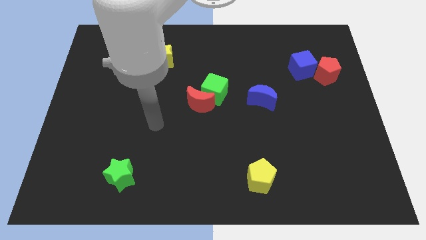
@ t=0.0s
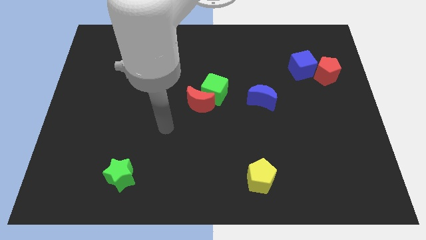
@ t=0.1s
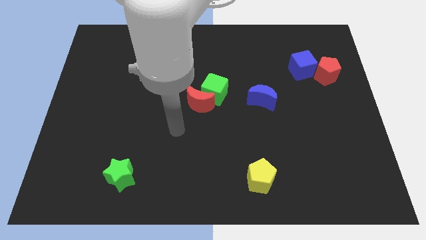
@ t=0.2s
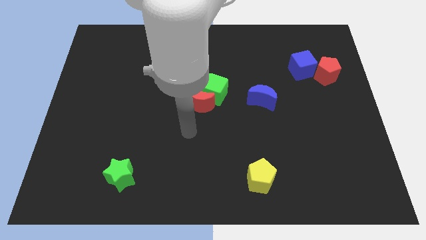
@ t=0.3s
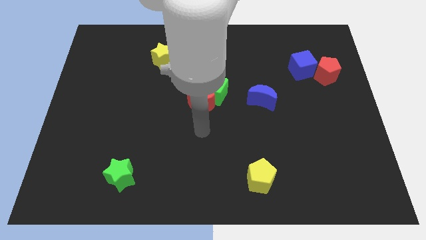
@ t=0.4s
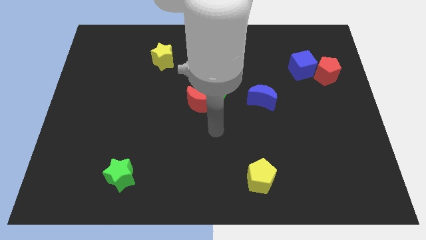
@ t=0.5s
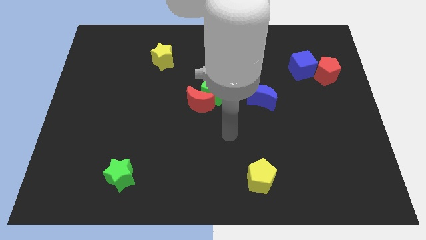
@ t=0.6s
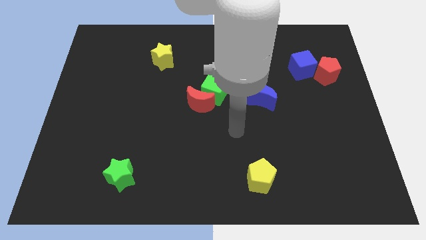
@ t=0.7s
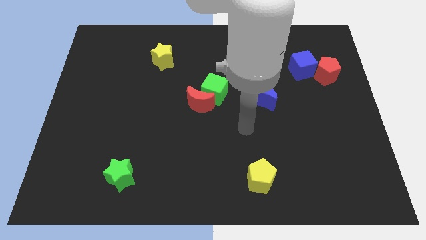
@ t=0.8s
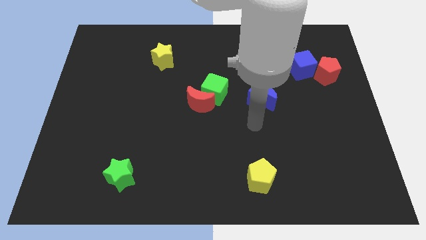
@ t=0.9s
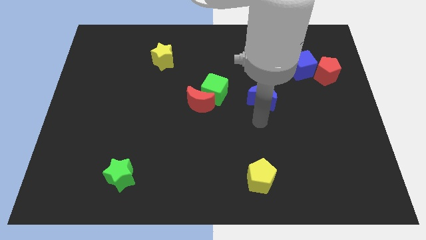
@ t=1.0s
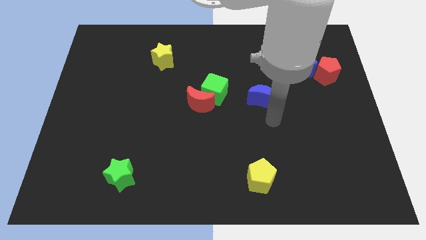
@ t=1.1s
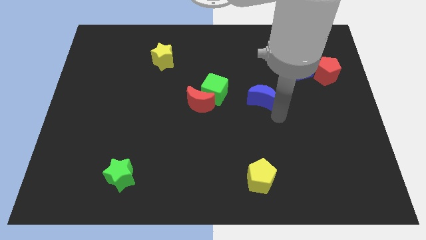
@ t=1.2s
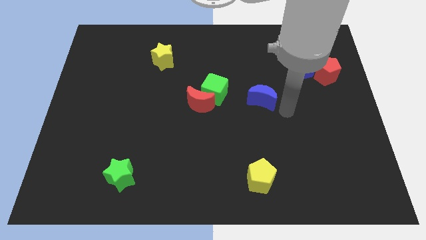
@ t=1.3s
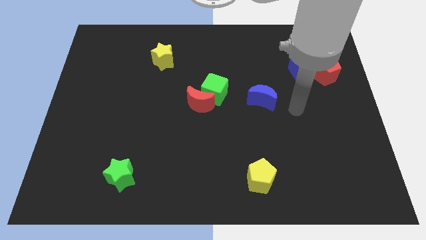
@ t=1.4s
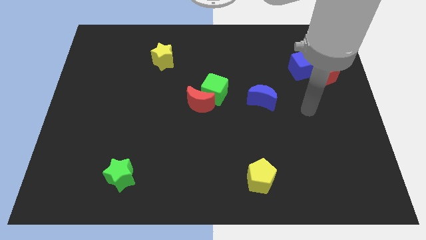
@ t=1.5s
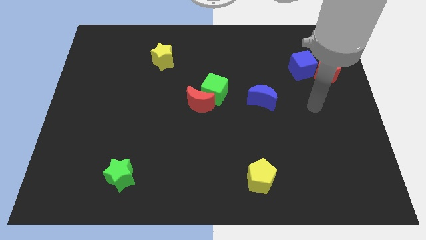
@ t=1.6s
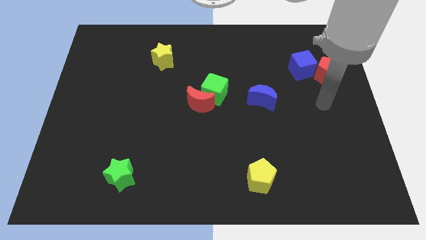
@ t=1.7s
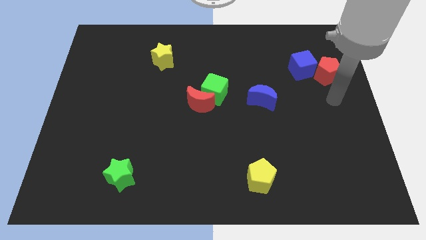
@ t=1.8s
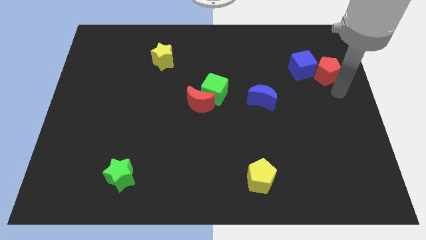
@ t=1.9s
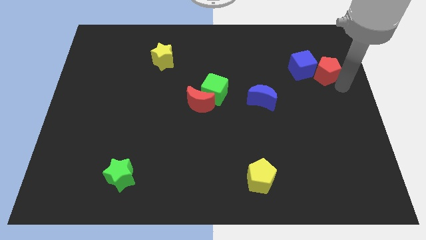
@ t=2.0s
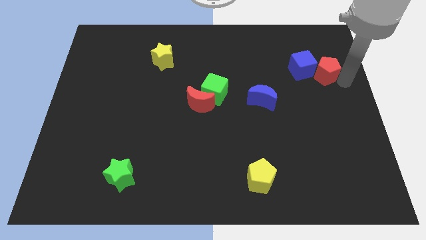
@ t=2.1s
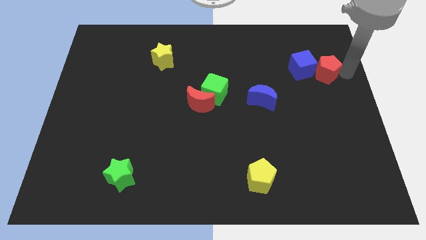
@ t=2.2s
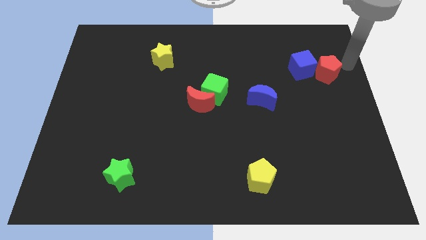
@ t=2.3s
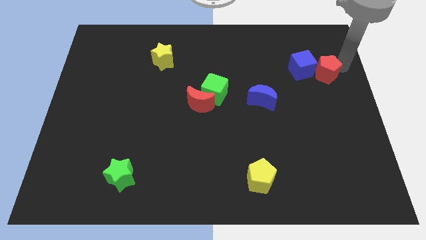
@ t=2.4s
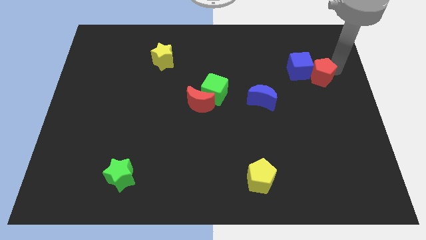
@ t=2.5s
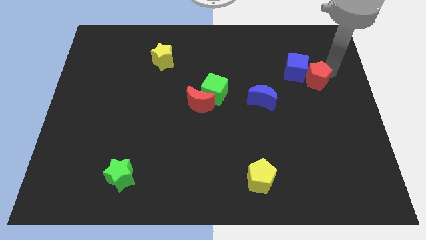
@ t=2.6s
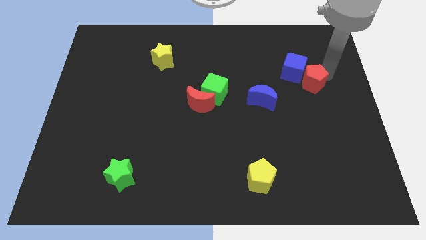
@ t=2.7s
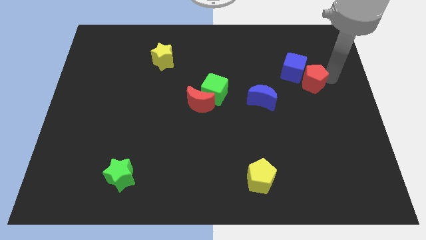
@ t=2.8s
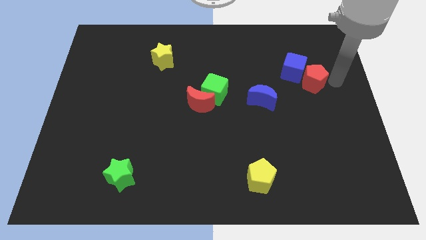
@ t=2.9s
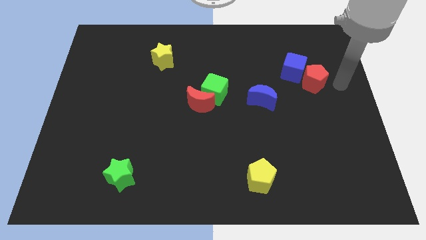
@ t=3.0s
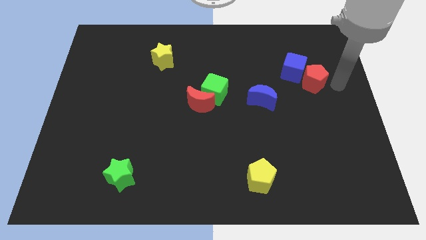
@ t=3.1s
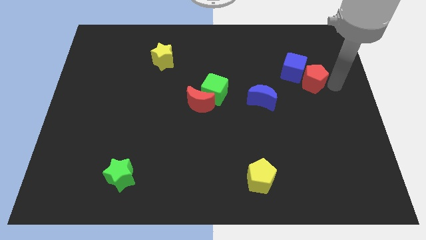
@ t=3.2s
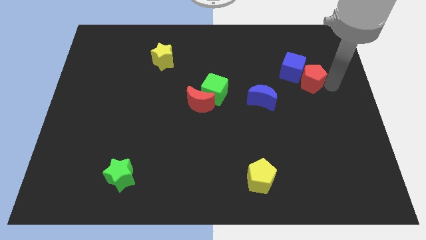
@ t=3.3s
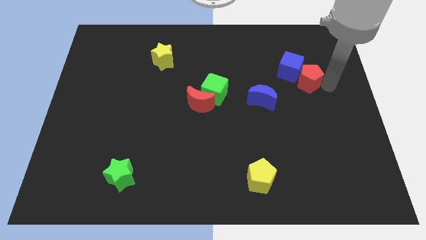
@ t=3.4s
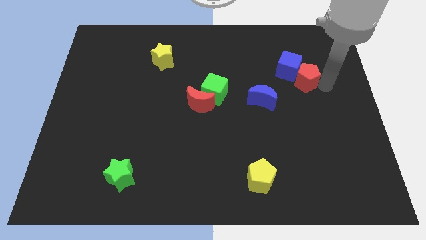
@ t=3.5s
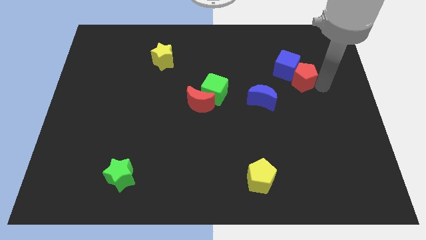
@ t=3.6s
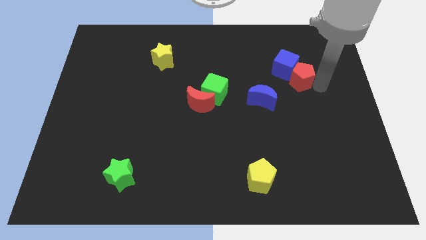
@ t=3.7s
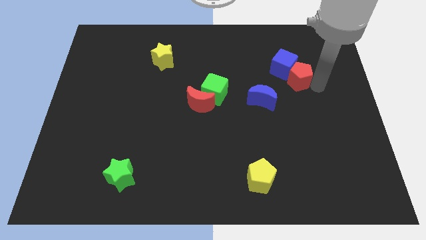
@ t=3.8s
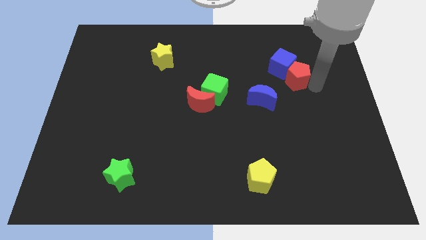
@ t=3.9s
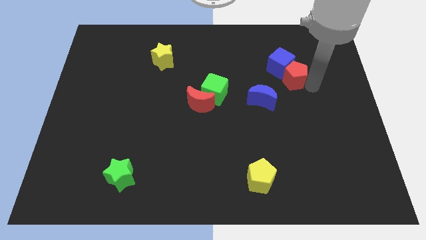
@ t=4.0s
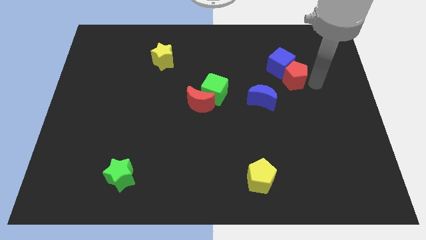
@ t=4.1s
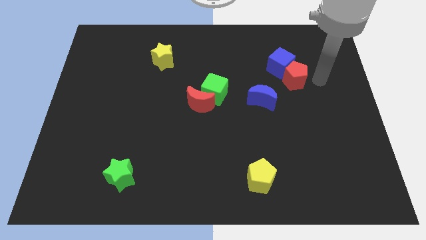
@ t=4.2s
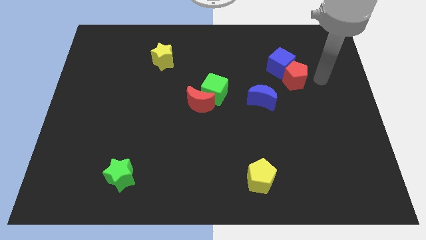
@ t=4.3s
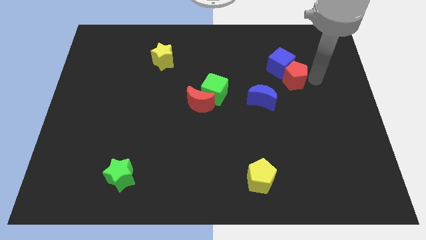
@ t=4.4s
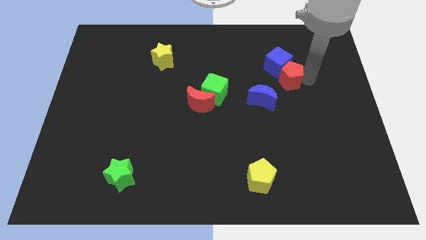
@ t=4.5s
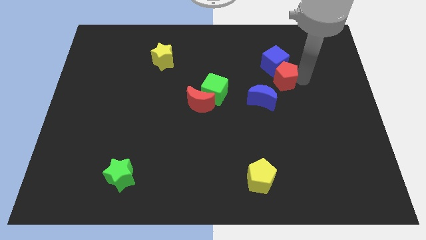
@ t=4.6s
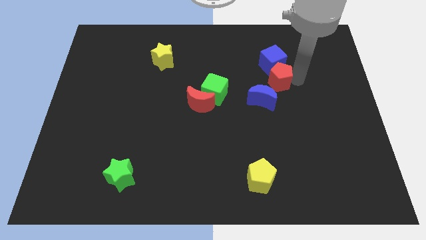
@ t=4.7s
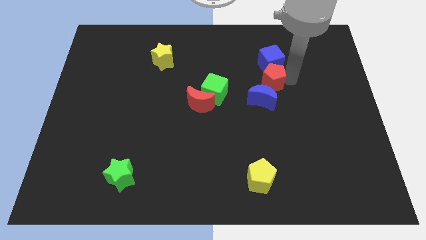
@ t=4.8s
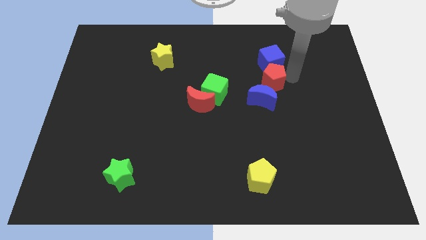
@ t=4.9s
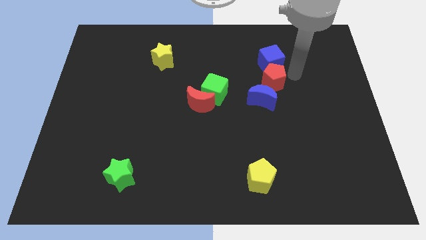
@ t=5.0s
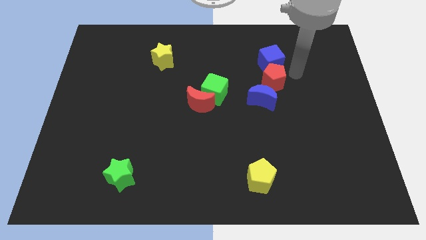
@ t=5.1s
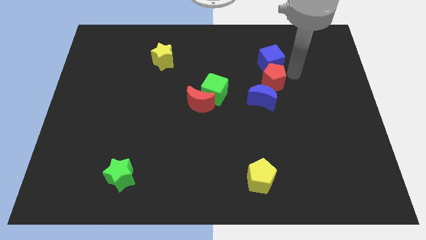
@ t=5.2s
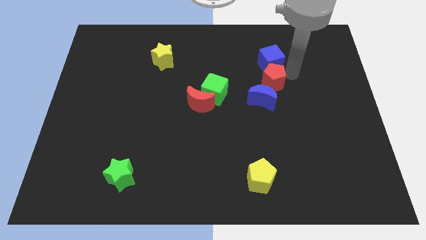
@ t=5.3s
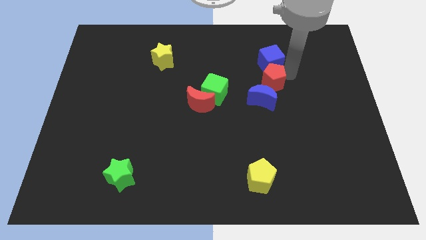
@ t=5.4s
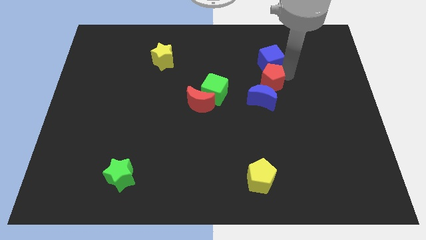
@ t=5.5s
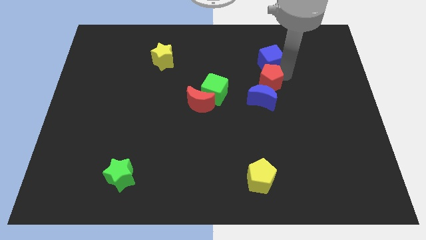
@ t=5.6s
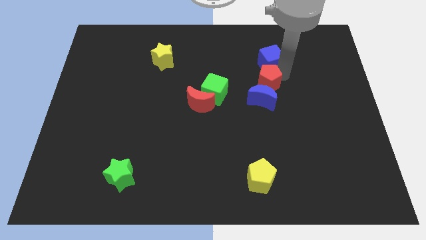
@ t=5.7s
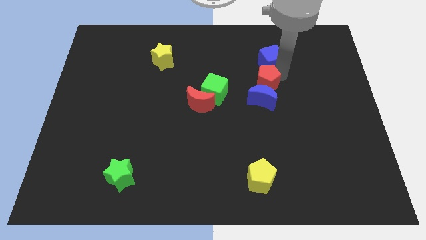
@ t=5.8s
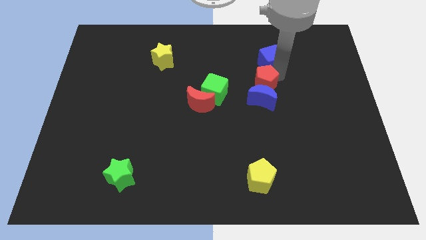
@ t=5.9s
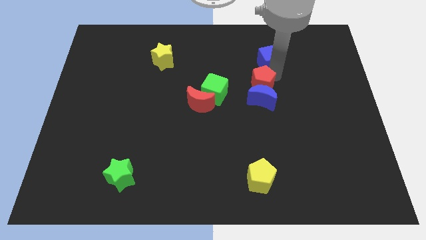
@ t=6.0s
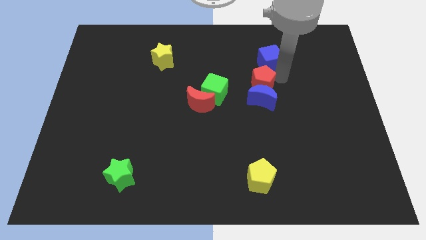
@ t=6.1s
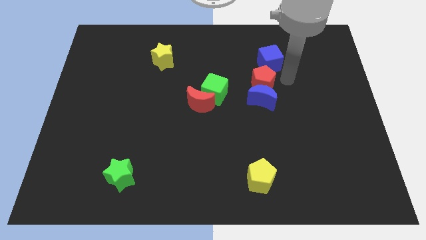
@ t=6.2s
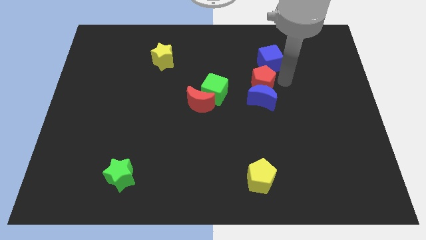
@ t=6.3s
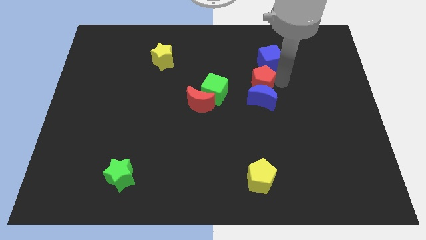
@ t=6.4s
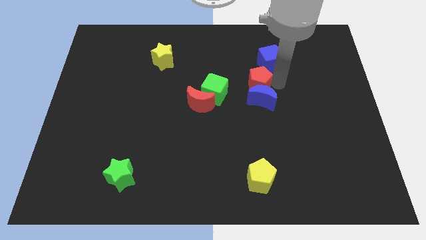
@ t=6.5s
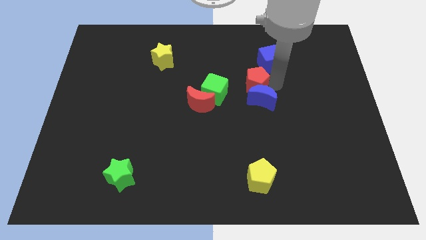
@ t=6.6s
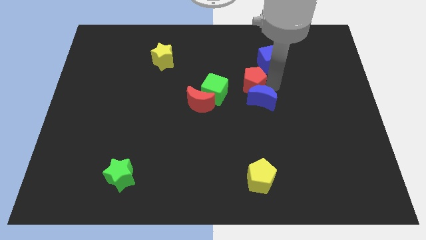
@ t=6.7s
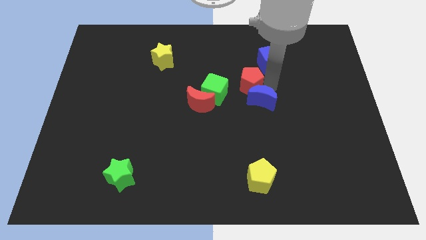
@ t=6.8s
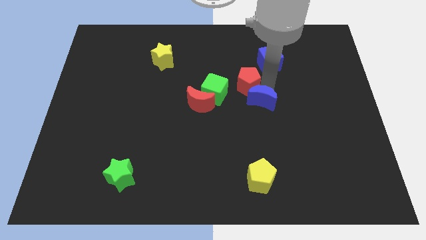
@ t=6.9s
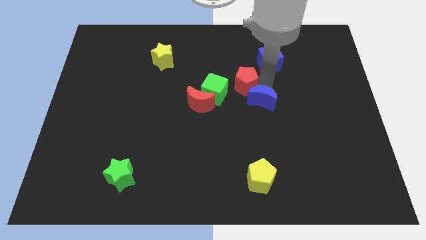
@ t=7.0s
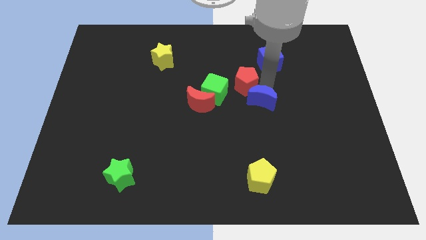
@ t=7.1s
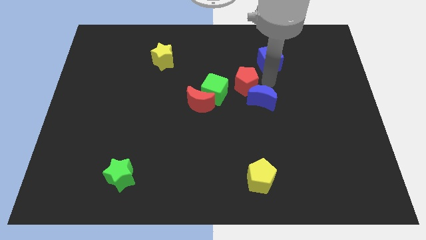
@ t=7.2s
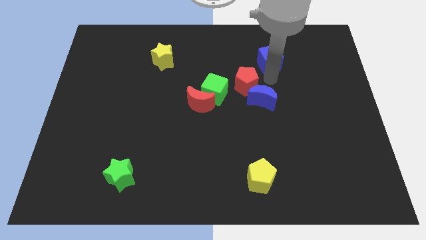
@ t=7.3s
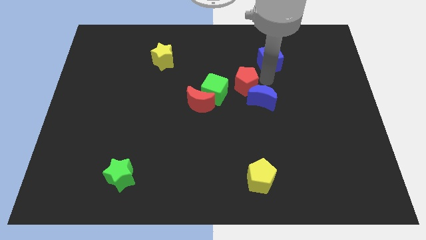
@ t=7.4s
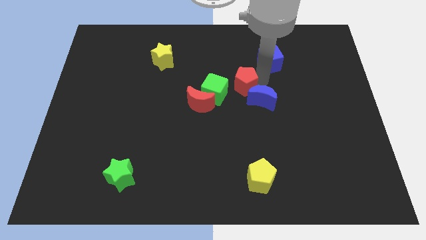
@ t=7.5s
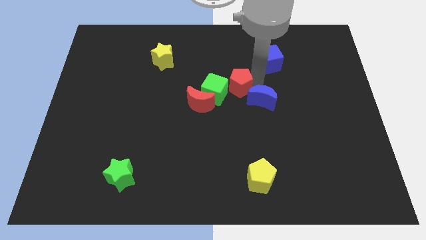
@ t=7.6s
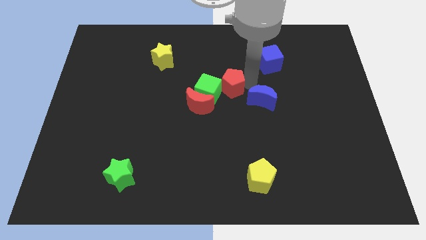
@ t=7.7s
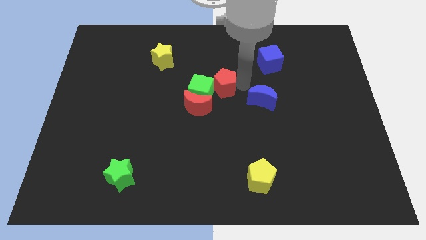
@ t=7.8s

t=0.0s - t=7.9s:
push the red pentagon towards the green cube
